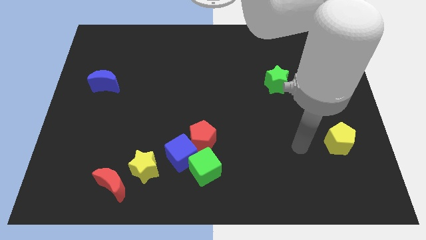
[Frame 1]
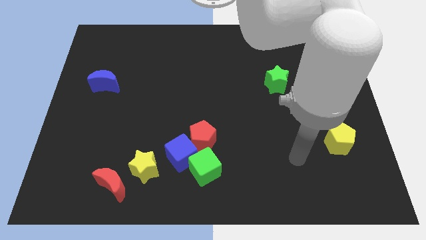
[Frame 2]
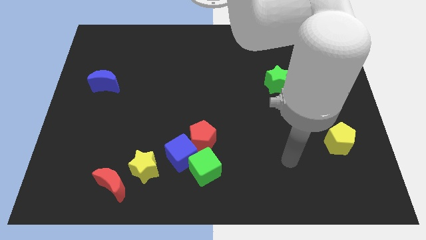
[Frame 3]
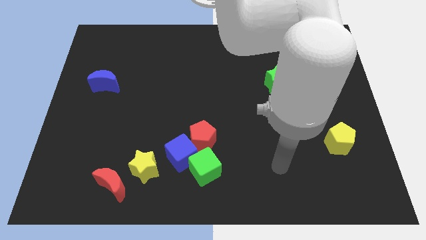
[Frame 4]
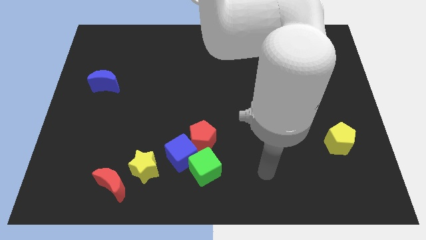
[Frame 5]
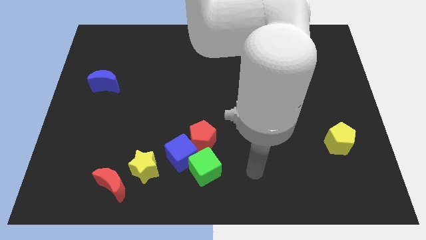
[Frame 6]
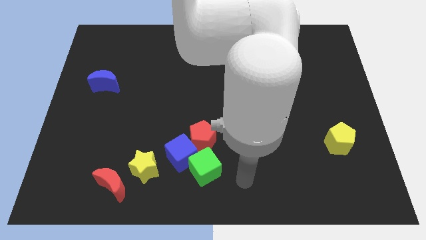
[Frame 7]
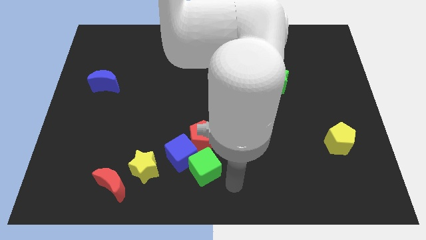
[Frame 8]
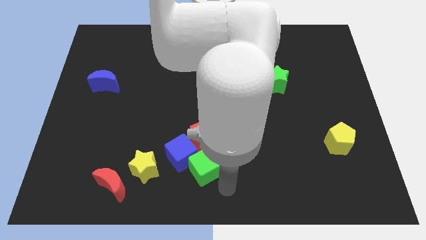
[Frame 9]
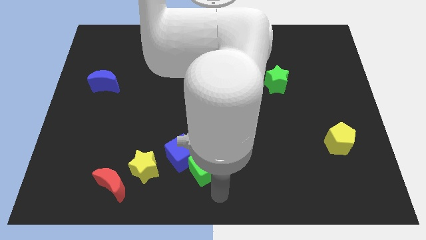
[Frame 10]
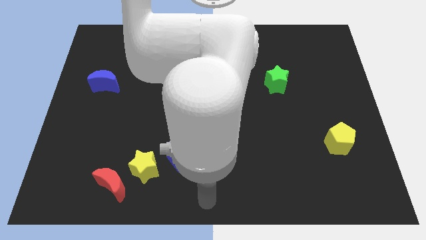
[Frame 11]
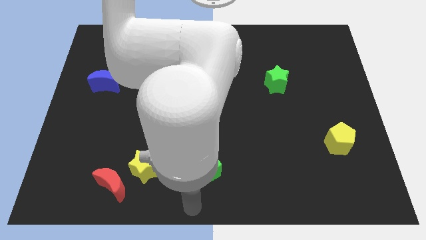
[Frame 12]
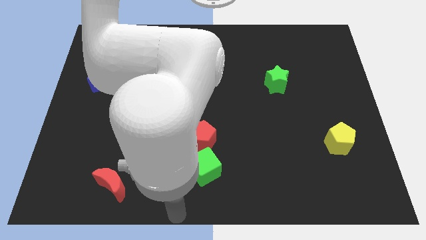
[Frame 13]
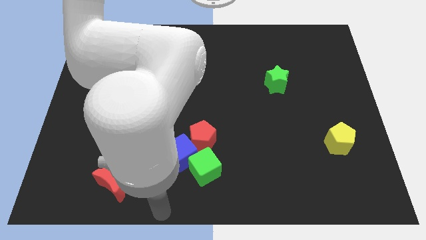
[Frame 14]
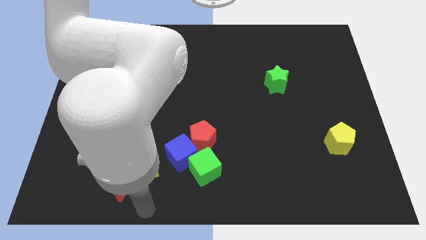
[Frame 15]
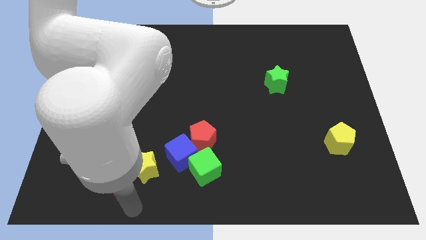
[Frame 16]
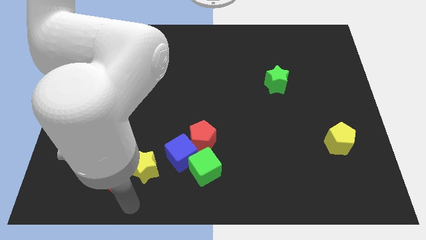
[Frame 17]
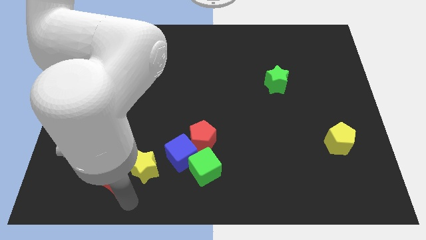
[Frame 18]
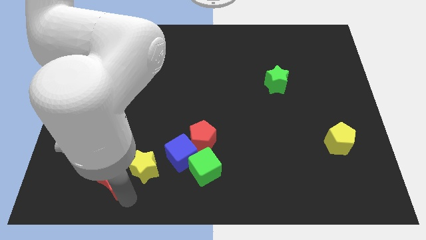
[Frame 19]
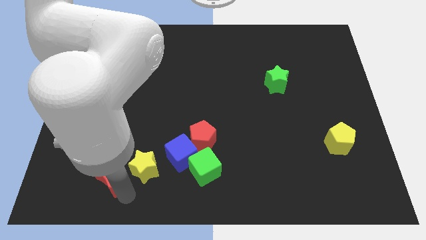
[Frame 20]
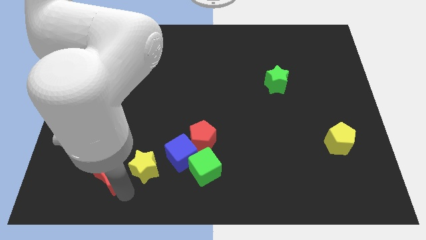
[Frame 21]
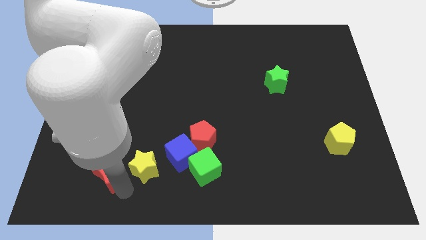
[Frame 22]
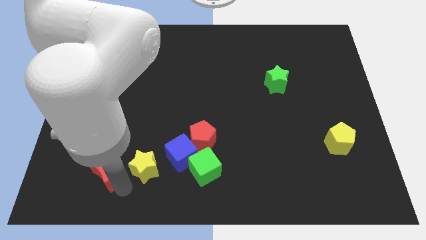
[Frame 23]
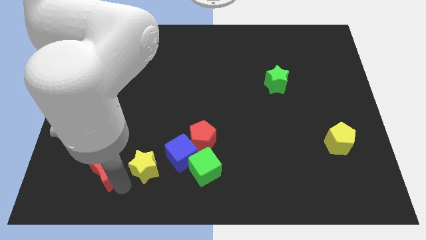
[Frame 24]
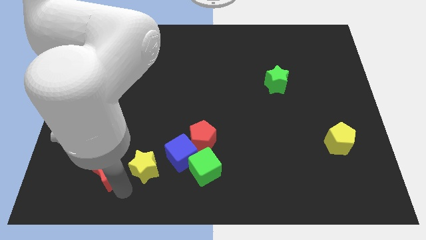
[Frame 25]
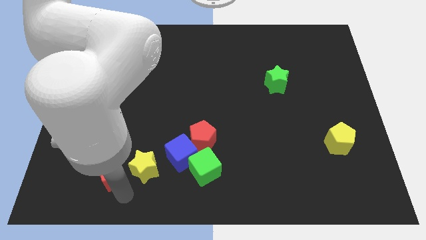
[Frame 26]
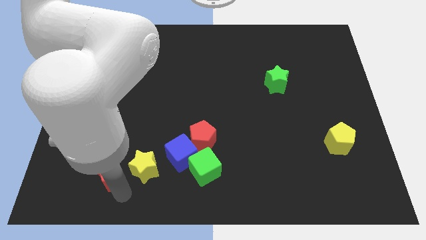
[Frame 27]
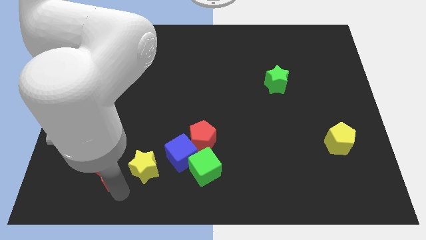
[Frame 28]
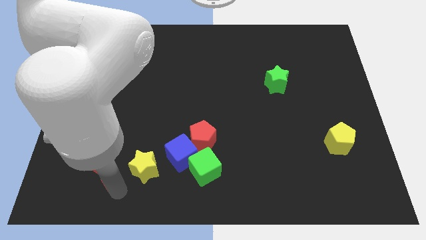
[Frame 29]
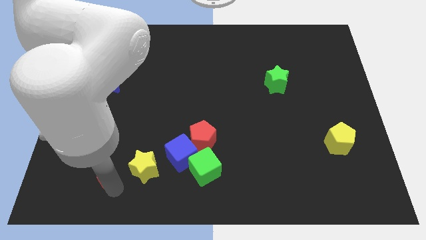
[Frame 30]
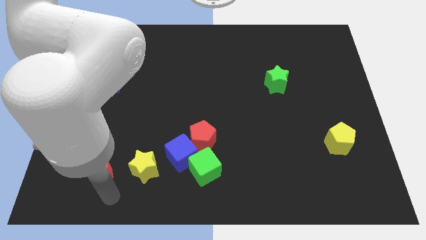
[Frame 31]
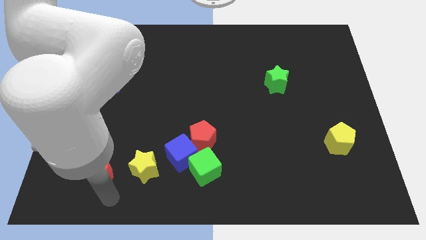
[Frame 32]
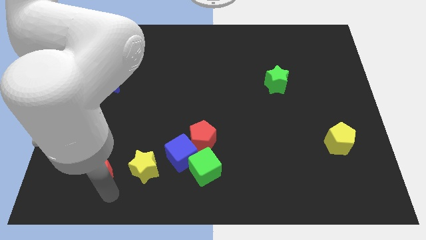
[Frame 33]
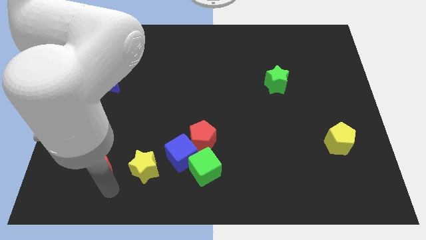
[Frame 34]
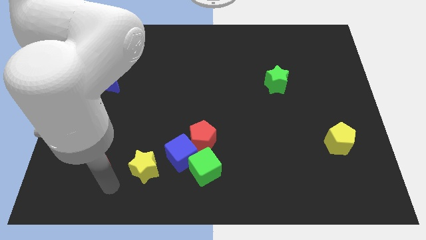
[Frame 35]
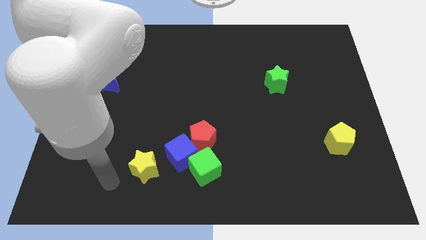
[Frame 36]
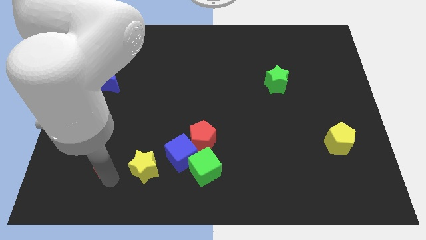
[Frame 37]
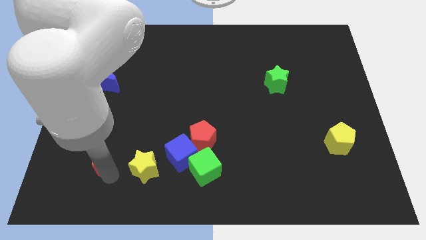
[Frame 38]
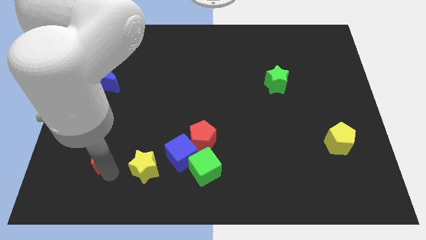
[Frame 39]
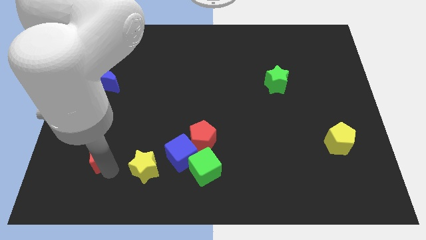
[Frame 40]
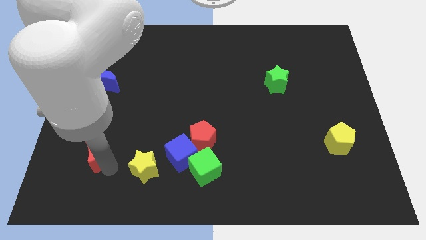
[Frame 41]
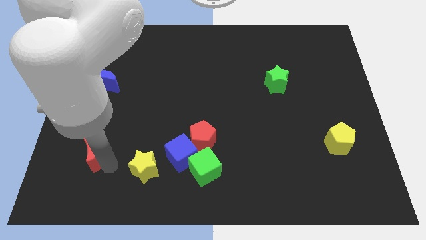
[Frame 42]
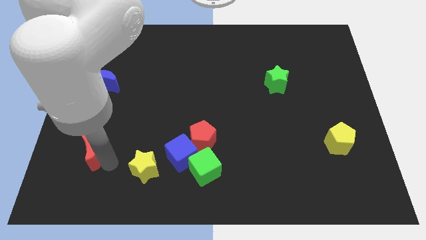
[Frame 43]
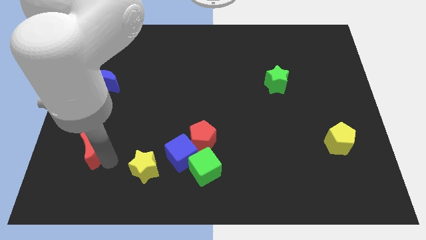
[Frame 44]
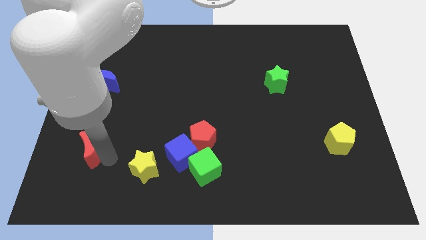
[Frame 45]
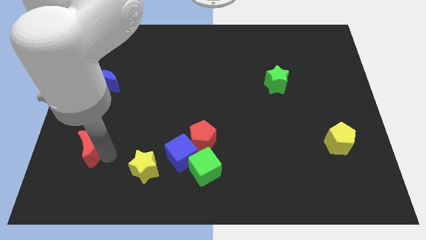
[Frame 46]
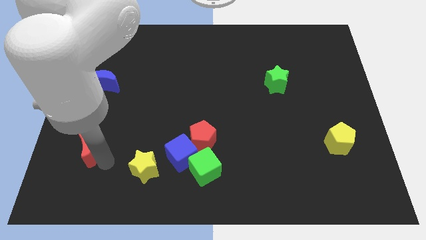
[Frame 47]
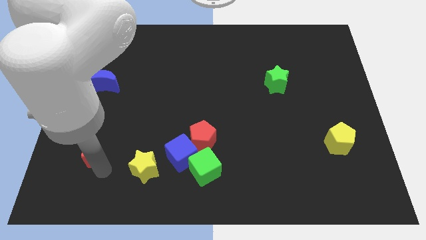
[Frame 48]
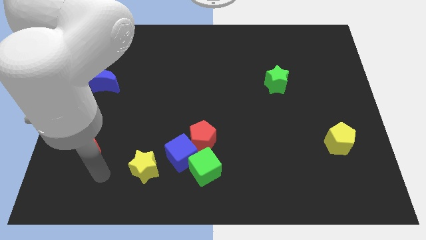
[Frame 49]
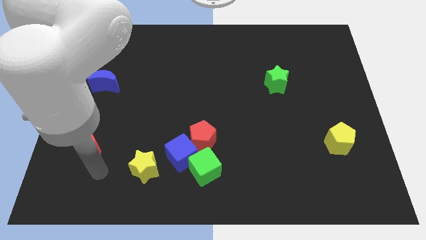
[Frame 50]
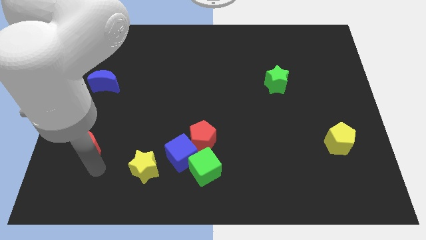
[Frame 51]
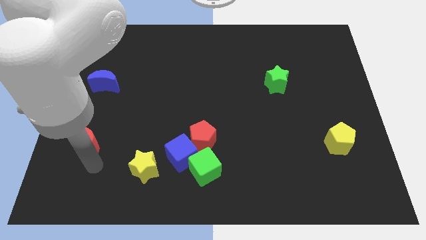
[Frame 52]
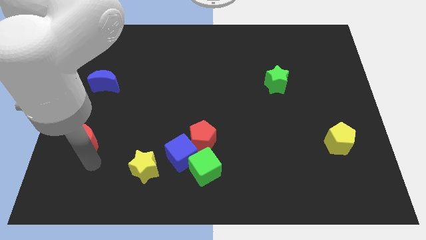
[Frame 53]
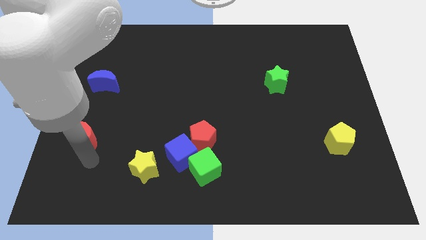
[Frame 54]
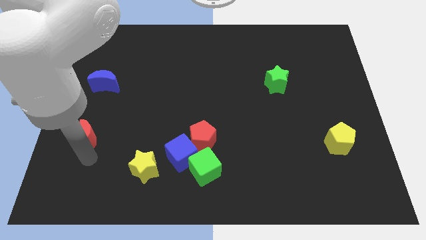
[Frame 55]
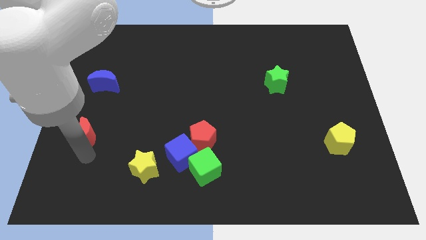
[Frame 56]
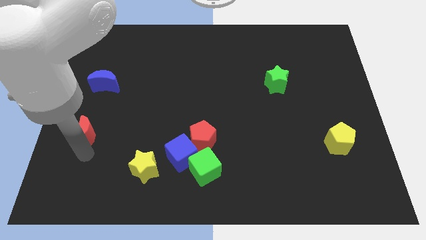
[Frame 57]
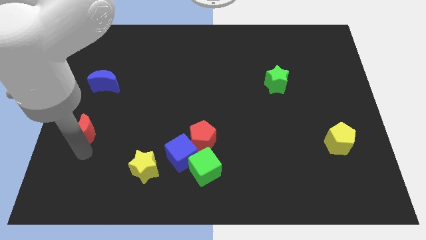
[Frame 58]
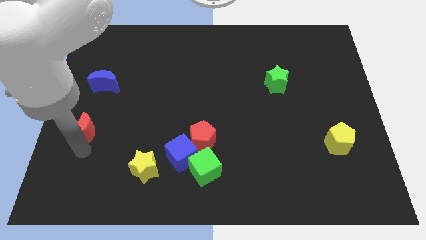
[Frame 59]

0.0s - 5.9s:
put the red moon to the center left

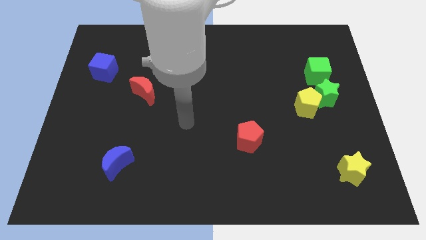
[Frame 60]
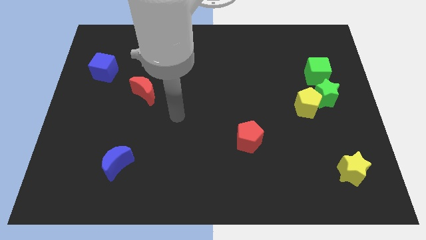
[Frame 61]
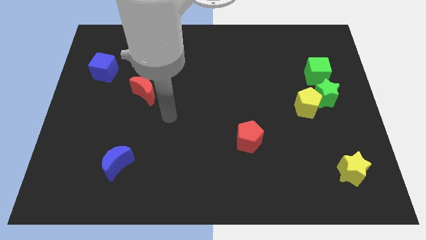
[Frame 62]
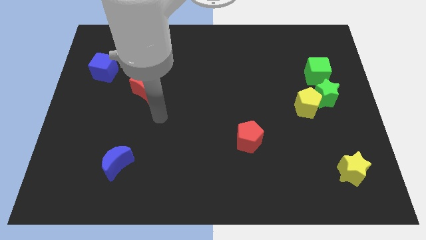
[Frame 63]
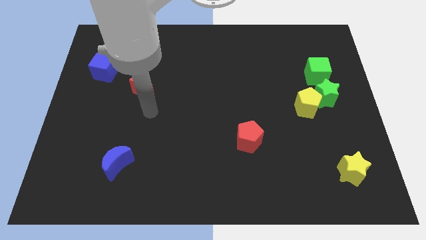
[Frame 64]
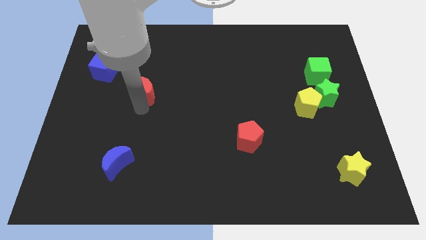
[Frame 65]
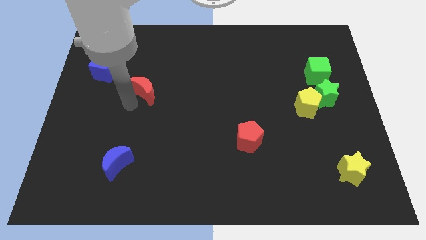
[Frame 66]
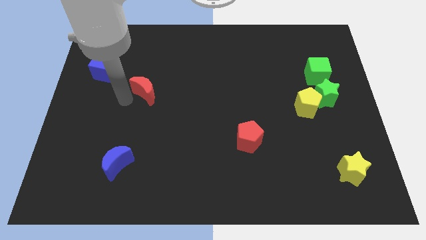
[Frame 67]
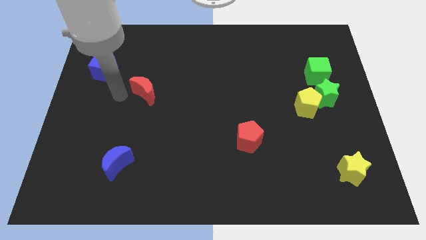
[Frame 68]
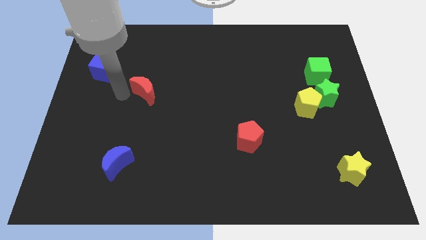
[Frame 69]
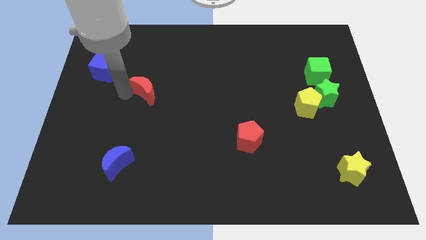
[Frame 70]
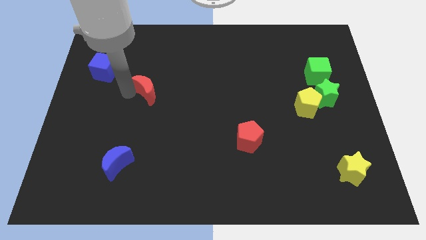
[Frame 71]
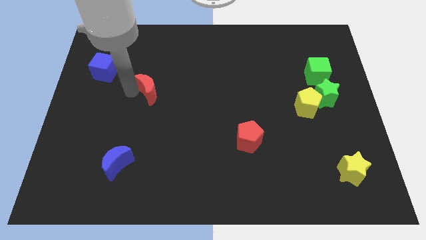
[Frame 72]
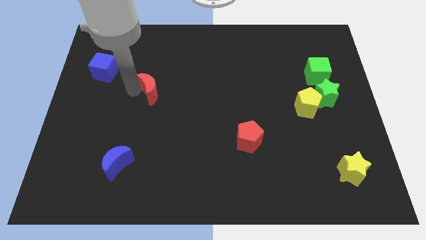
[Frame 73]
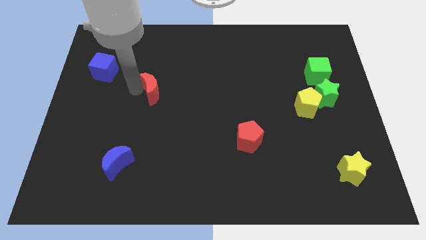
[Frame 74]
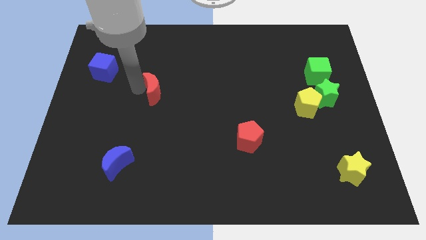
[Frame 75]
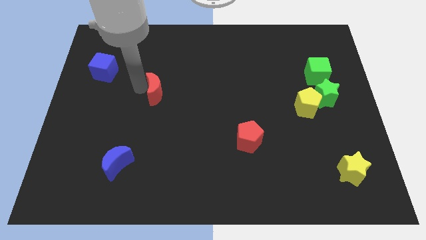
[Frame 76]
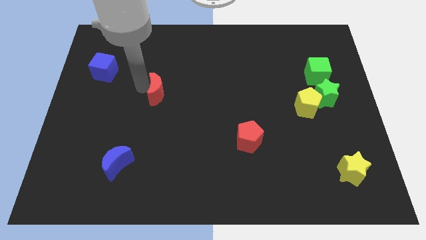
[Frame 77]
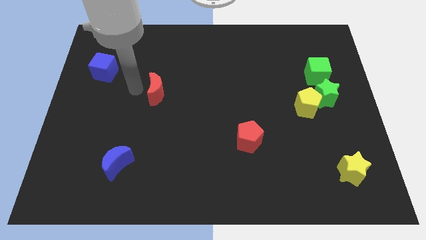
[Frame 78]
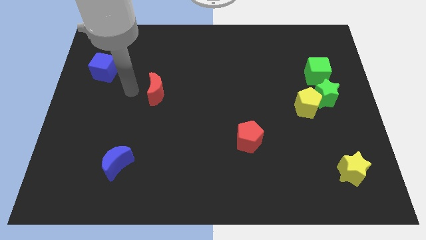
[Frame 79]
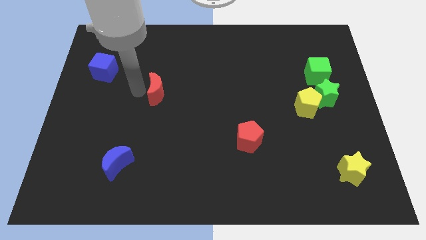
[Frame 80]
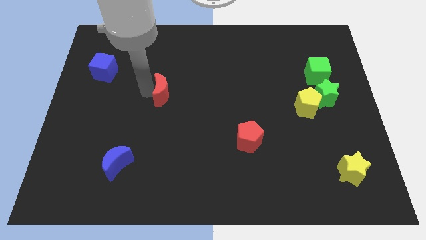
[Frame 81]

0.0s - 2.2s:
put the red moon to the center
